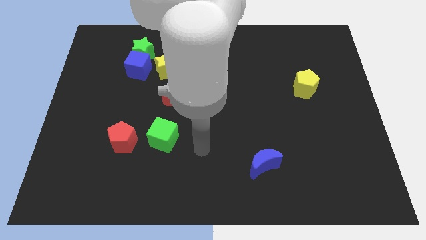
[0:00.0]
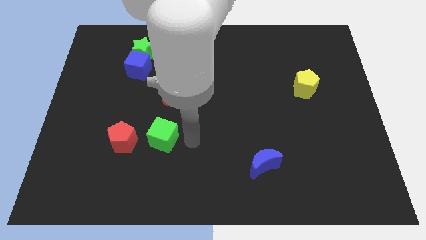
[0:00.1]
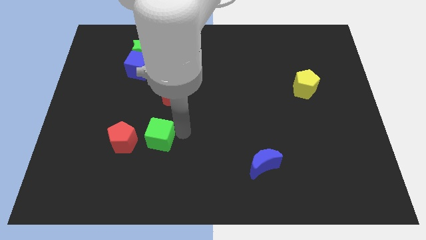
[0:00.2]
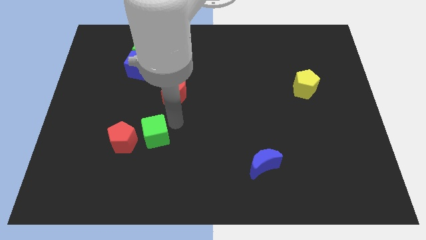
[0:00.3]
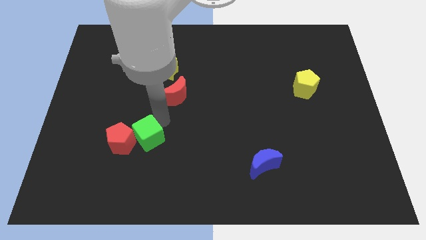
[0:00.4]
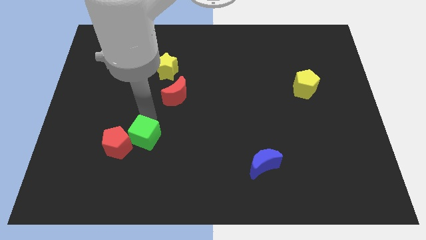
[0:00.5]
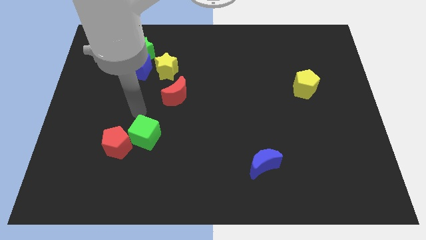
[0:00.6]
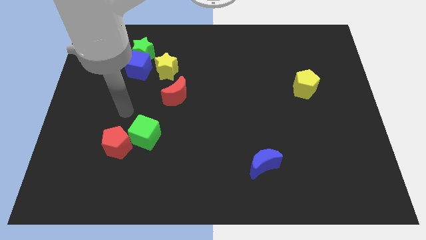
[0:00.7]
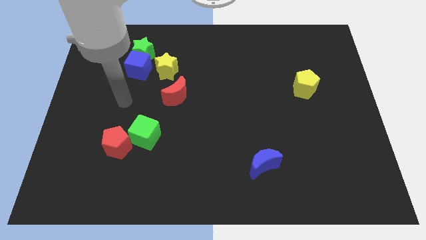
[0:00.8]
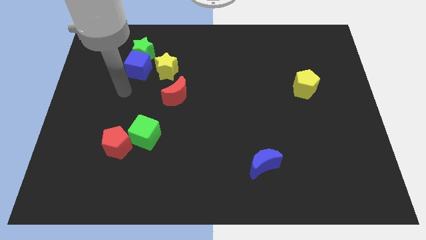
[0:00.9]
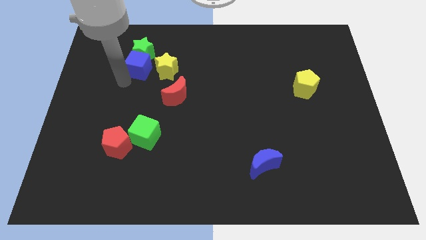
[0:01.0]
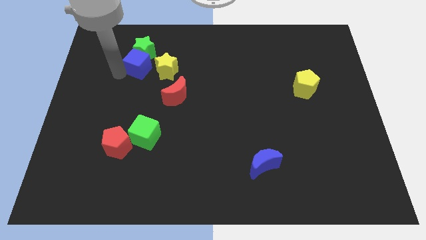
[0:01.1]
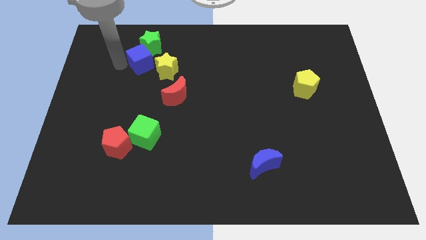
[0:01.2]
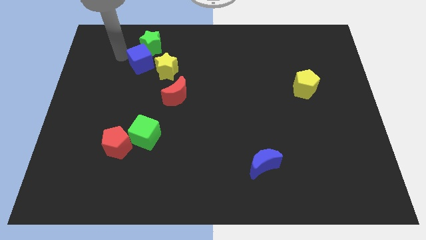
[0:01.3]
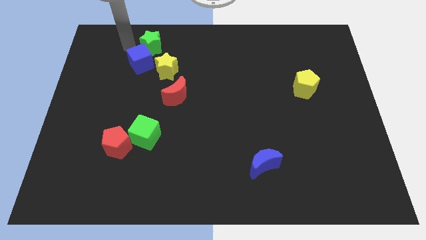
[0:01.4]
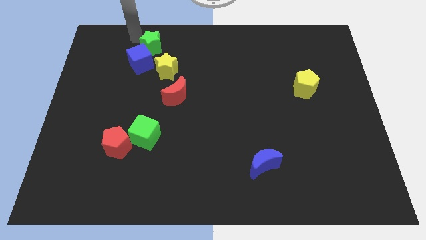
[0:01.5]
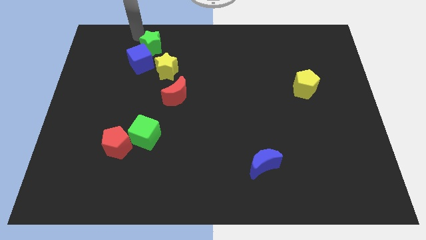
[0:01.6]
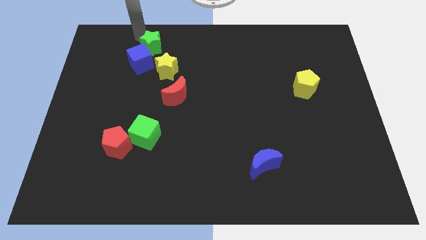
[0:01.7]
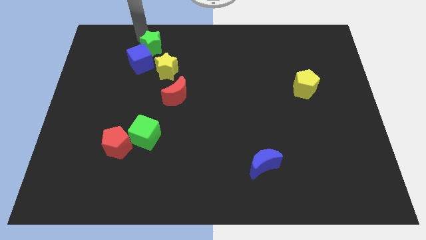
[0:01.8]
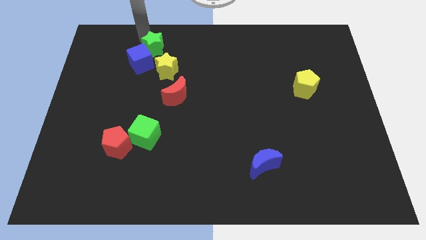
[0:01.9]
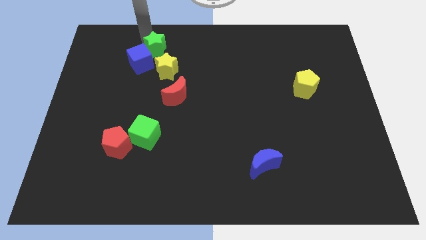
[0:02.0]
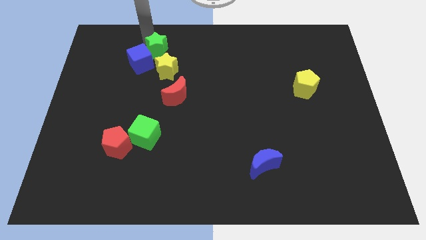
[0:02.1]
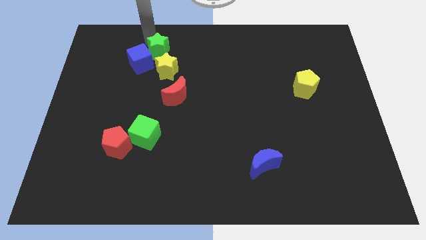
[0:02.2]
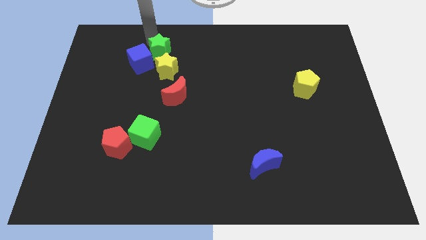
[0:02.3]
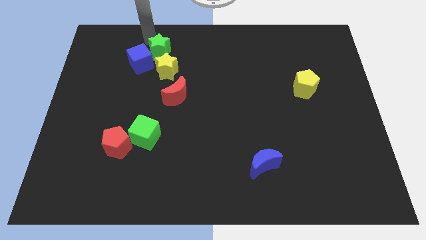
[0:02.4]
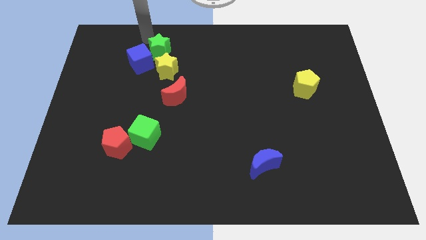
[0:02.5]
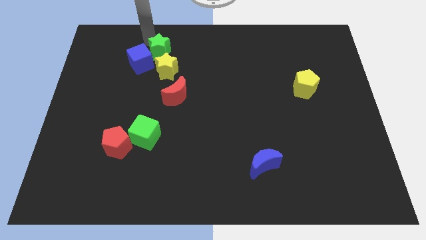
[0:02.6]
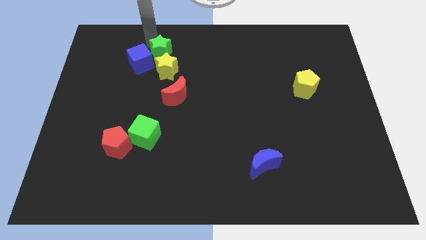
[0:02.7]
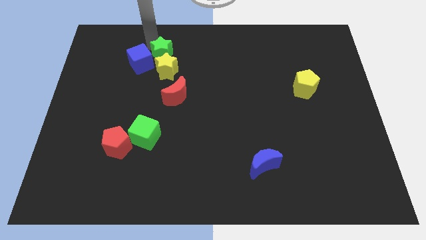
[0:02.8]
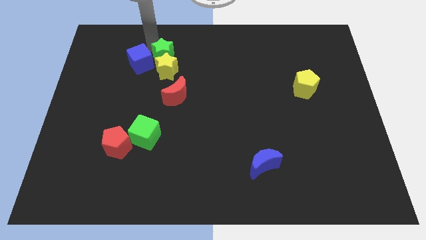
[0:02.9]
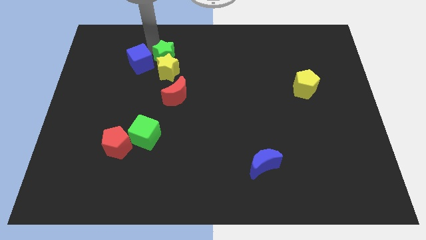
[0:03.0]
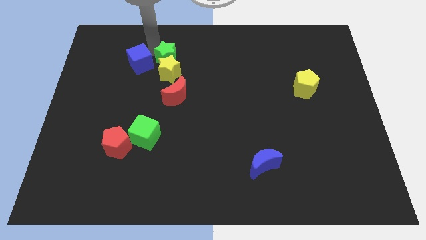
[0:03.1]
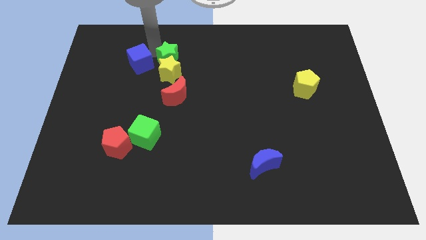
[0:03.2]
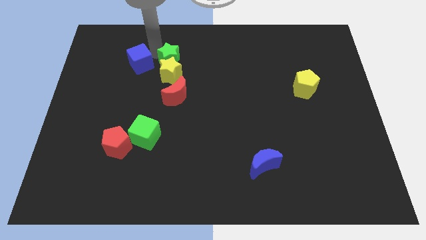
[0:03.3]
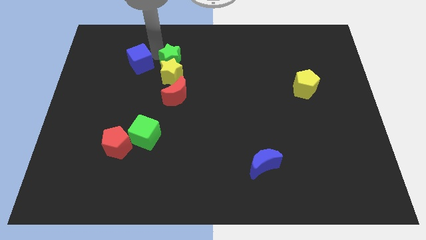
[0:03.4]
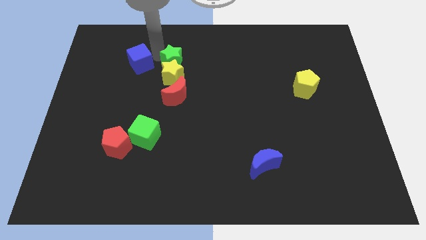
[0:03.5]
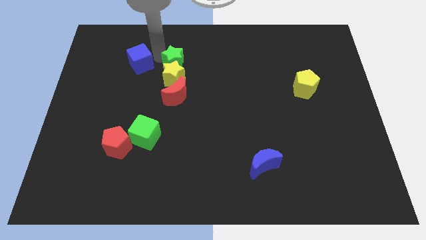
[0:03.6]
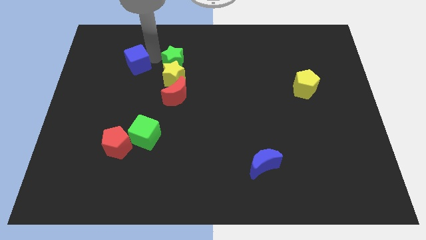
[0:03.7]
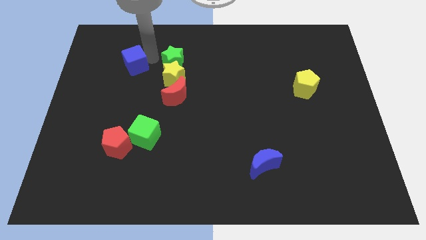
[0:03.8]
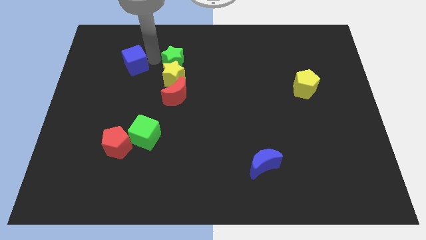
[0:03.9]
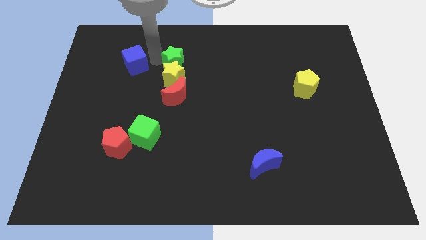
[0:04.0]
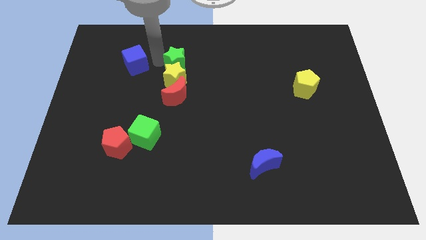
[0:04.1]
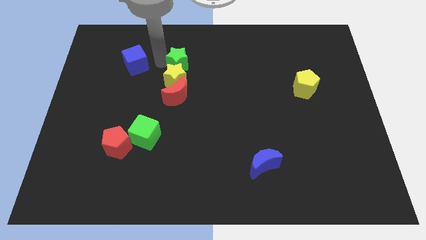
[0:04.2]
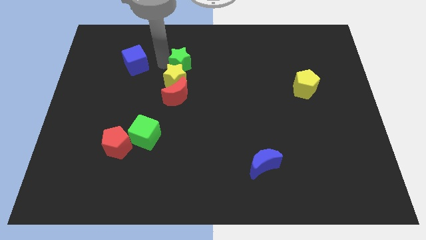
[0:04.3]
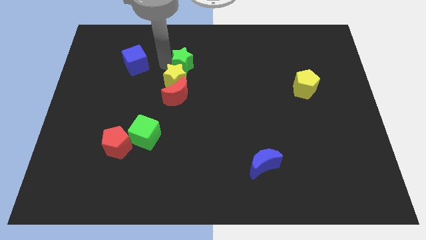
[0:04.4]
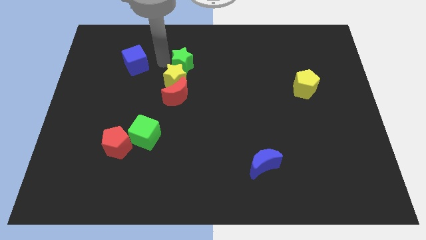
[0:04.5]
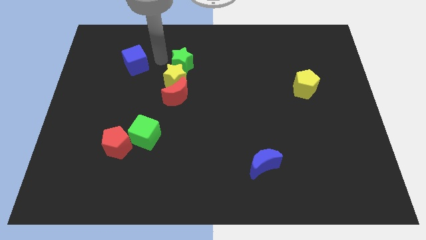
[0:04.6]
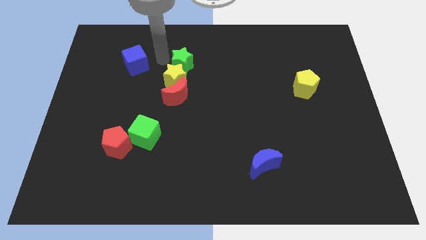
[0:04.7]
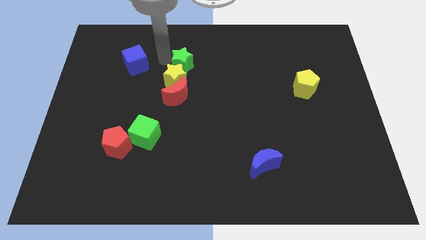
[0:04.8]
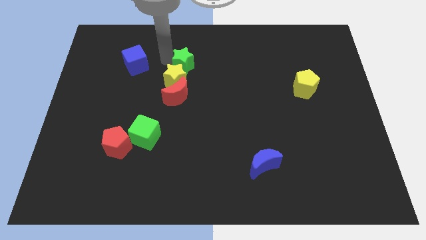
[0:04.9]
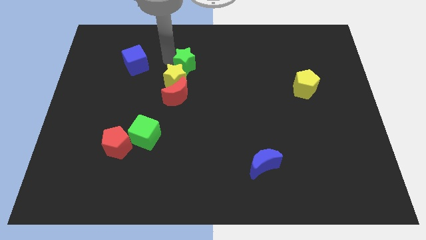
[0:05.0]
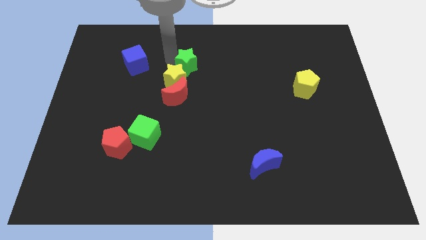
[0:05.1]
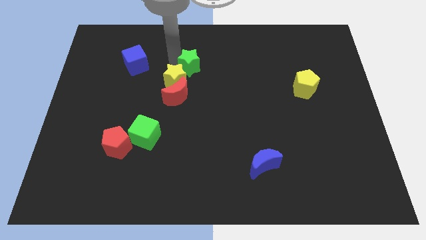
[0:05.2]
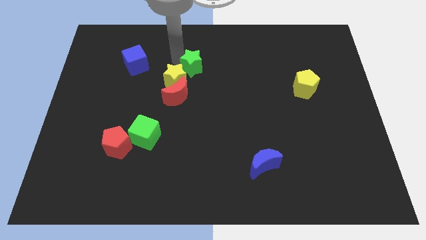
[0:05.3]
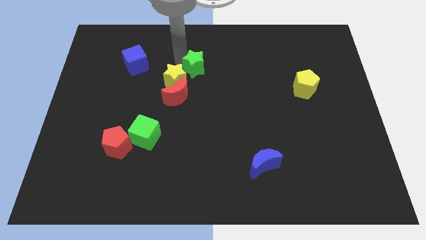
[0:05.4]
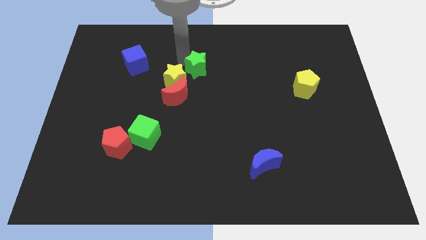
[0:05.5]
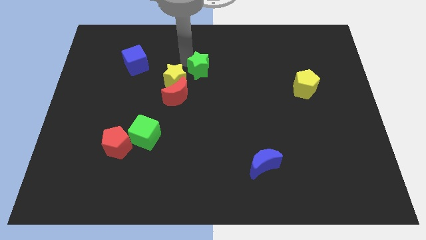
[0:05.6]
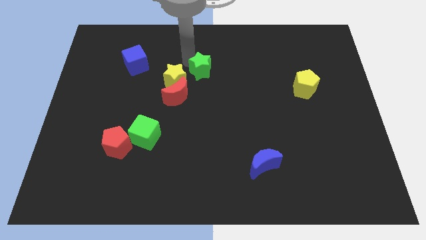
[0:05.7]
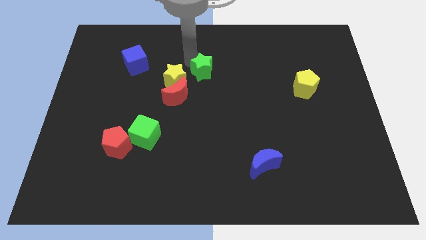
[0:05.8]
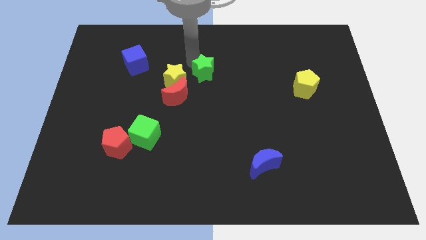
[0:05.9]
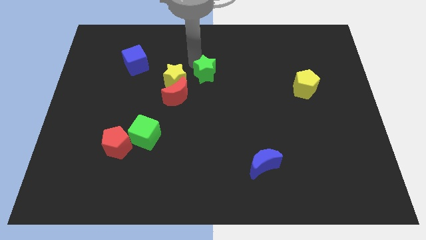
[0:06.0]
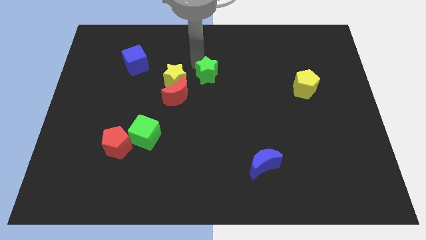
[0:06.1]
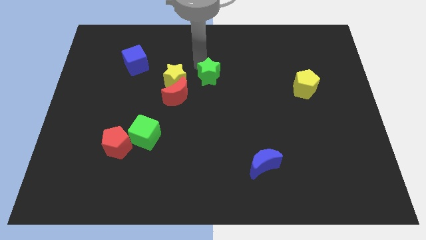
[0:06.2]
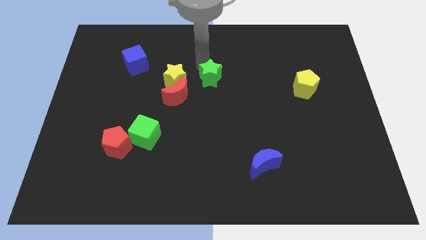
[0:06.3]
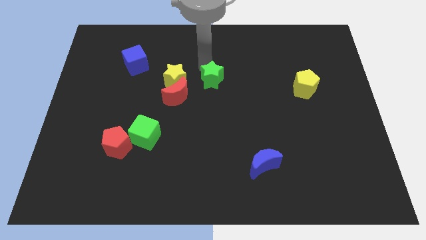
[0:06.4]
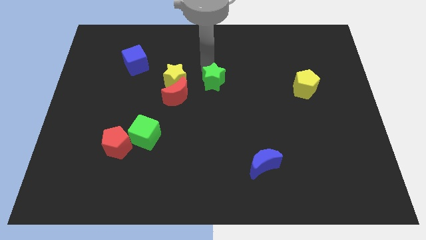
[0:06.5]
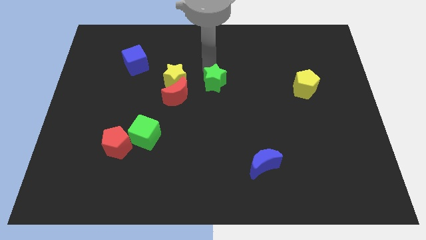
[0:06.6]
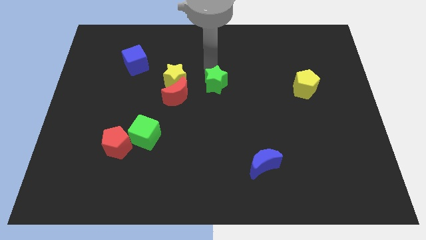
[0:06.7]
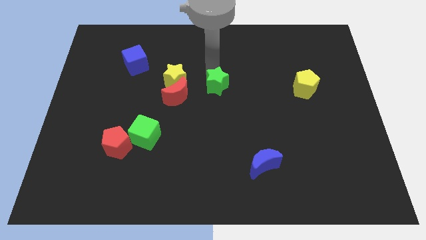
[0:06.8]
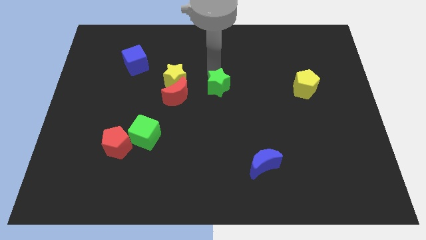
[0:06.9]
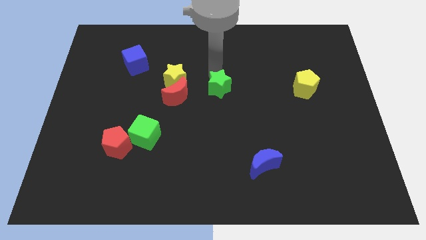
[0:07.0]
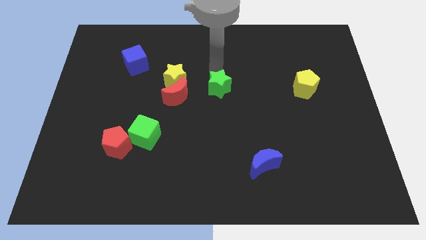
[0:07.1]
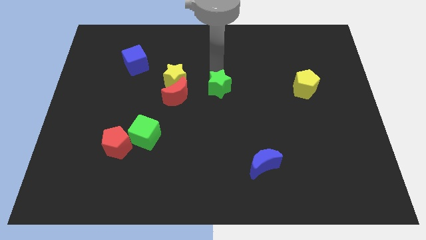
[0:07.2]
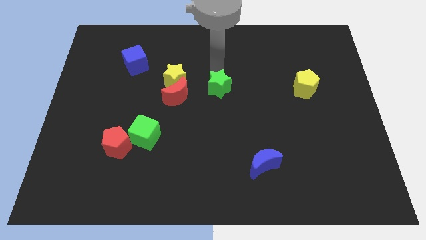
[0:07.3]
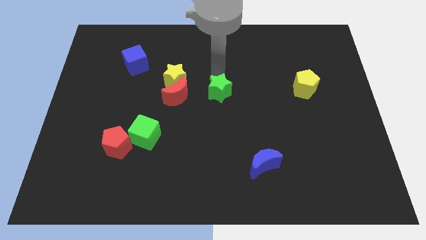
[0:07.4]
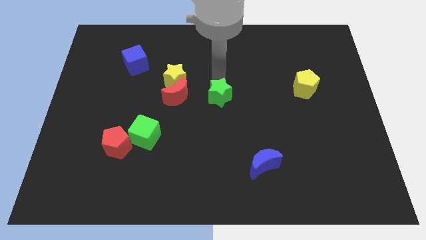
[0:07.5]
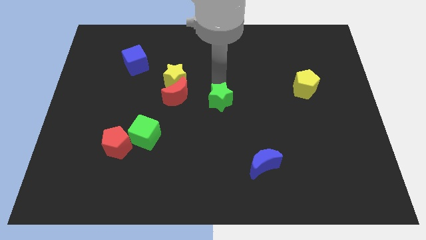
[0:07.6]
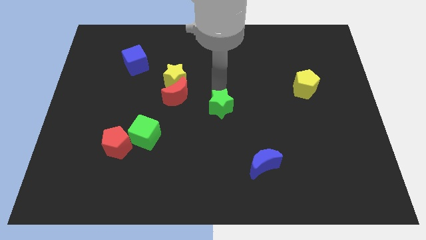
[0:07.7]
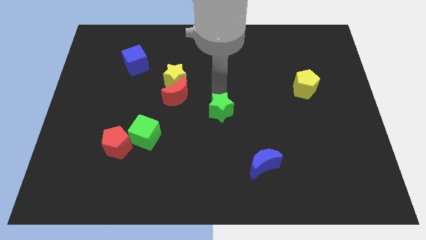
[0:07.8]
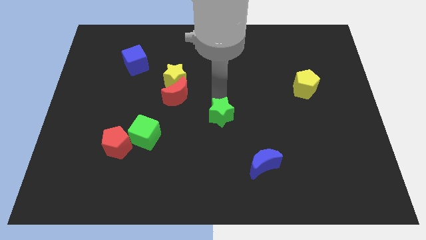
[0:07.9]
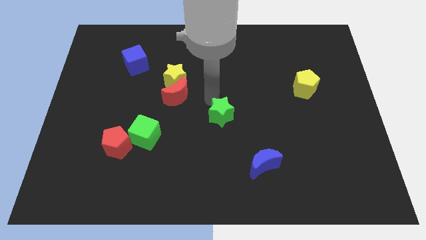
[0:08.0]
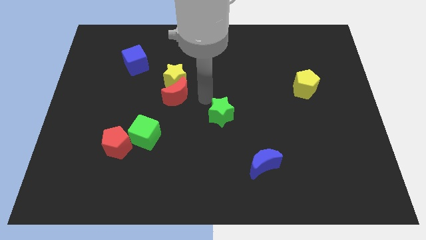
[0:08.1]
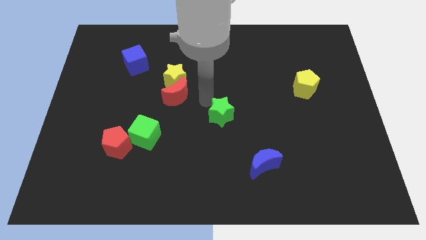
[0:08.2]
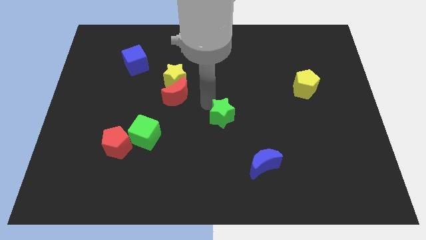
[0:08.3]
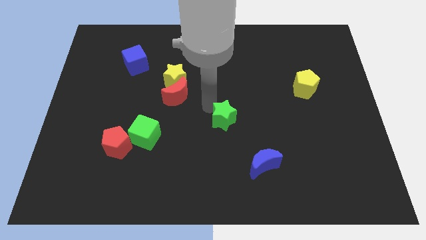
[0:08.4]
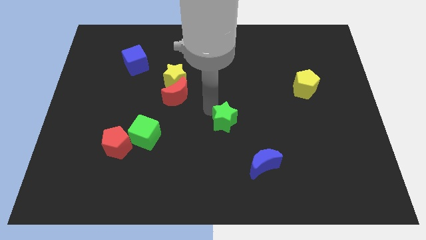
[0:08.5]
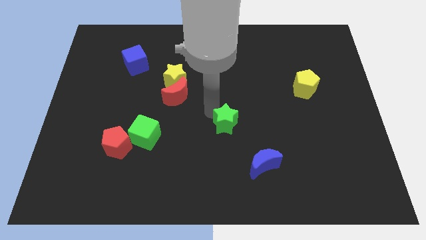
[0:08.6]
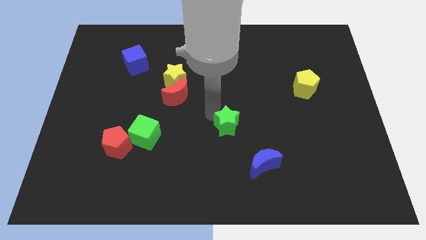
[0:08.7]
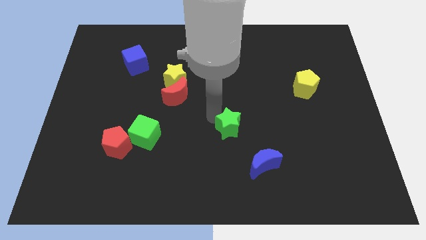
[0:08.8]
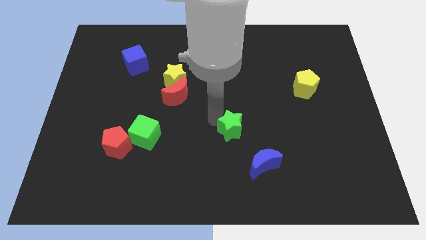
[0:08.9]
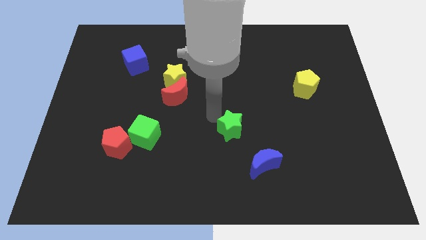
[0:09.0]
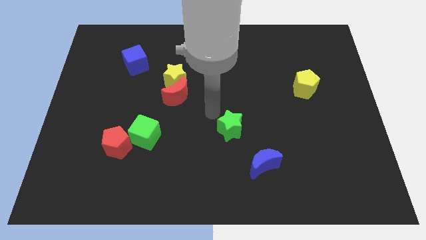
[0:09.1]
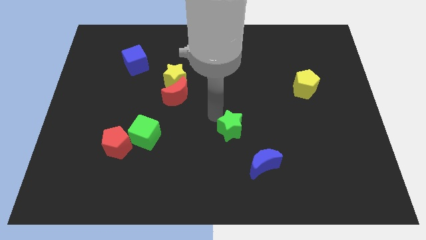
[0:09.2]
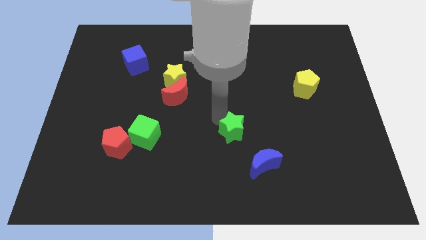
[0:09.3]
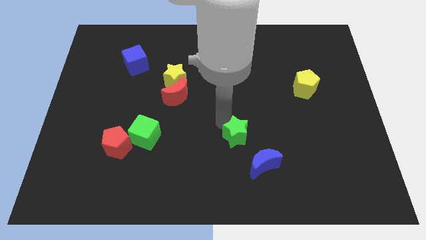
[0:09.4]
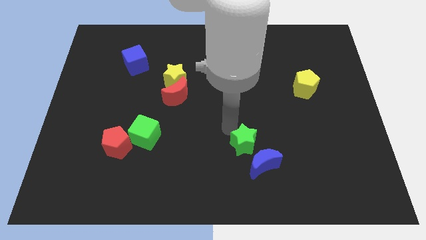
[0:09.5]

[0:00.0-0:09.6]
put the green star towards the blue moon
